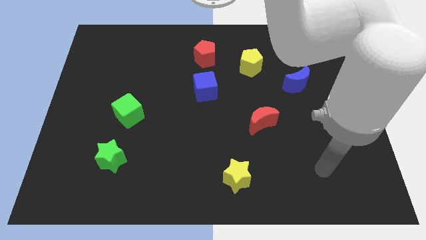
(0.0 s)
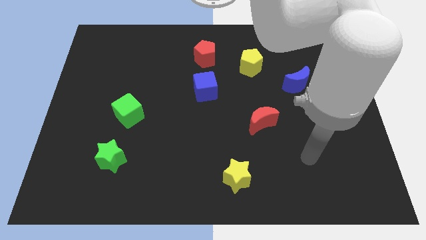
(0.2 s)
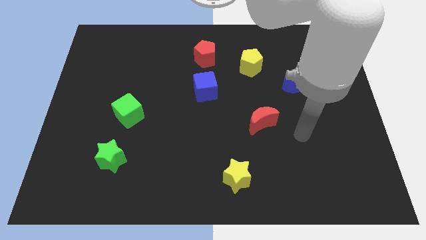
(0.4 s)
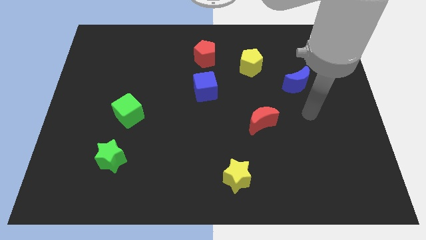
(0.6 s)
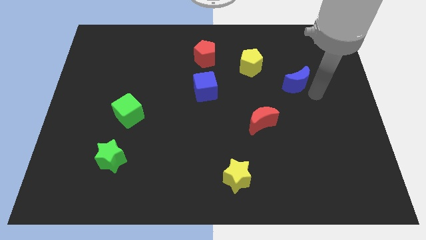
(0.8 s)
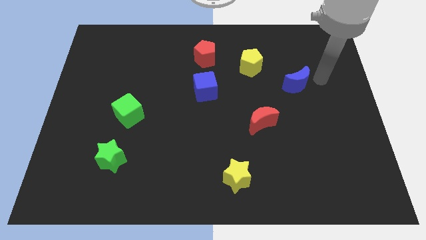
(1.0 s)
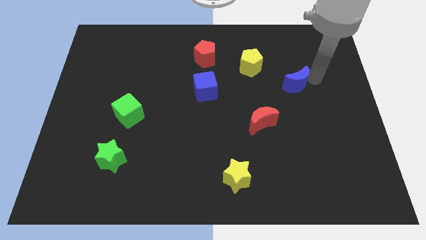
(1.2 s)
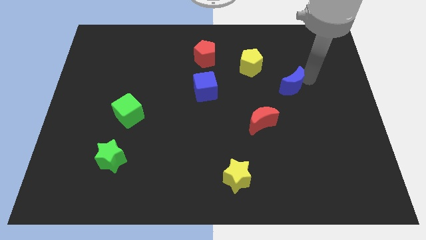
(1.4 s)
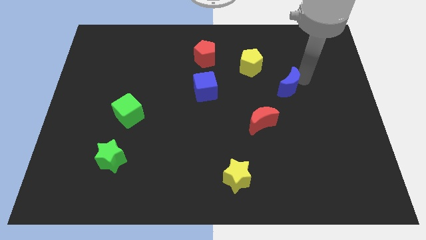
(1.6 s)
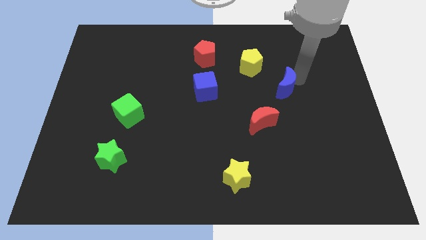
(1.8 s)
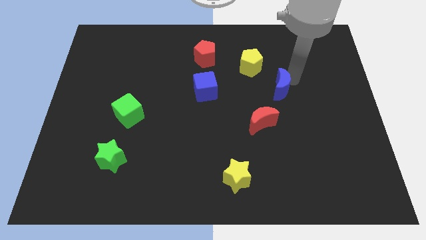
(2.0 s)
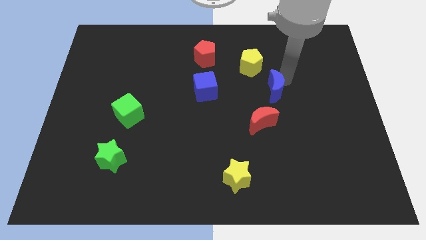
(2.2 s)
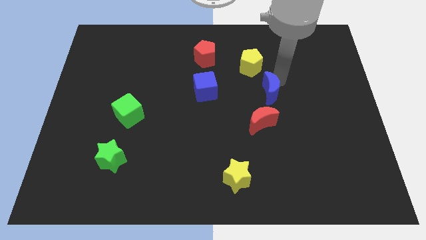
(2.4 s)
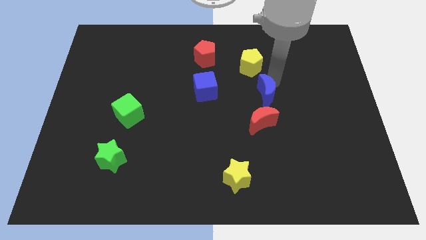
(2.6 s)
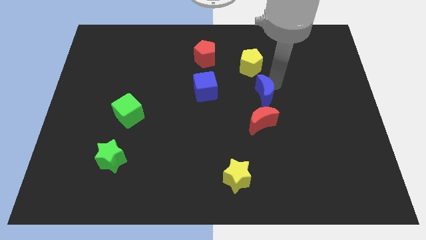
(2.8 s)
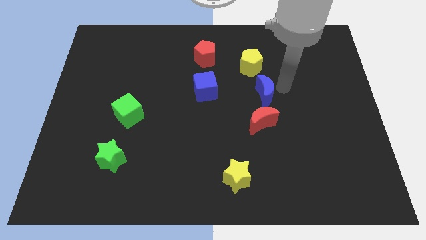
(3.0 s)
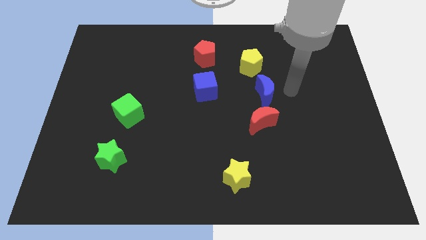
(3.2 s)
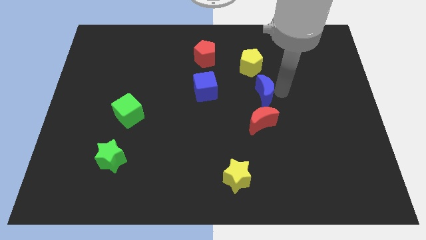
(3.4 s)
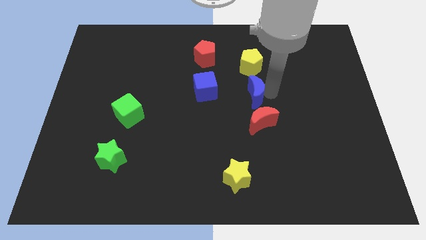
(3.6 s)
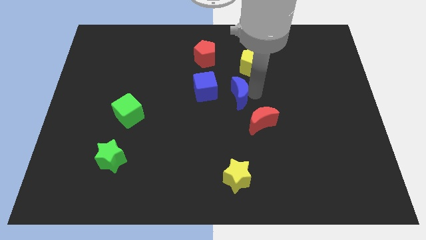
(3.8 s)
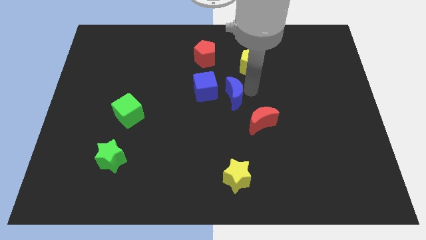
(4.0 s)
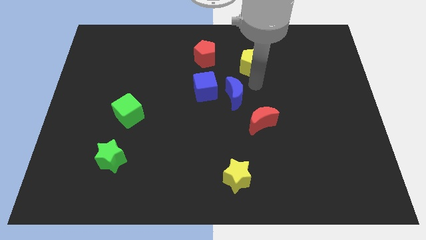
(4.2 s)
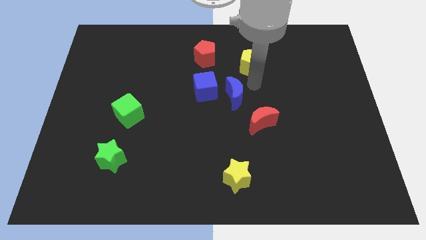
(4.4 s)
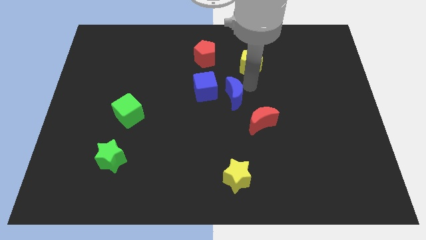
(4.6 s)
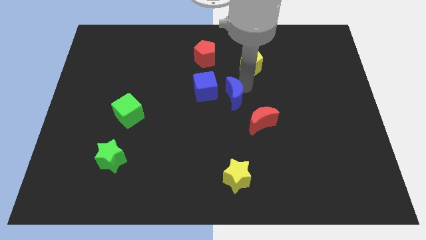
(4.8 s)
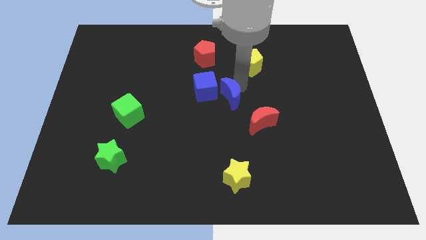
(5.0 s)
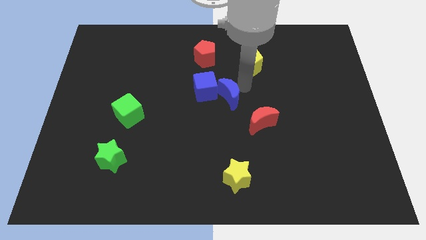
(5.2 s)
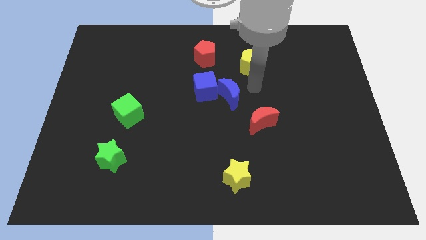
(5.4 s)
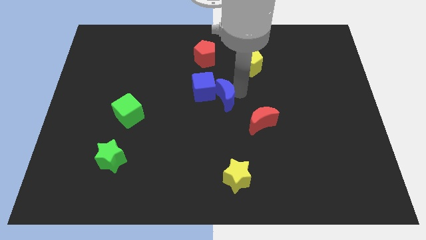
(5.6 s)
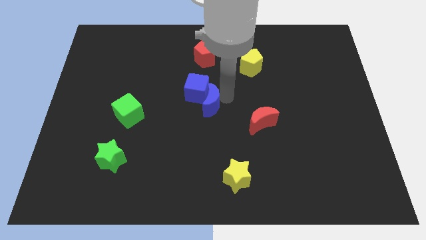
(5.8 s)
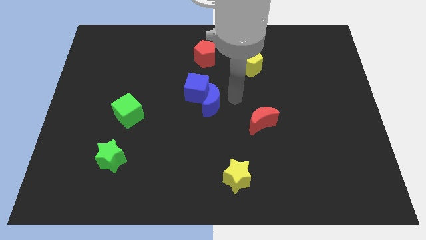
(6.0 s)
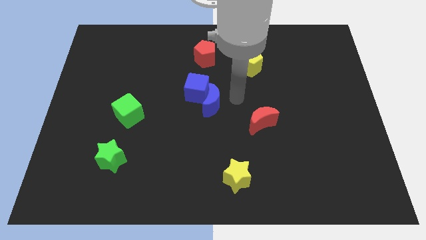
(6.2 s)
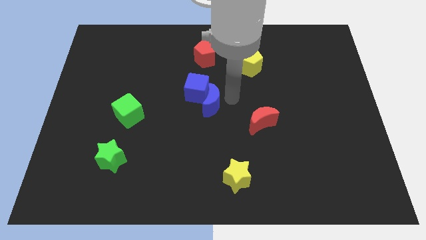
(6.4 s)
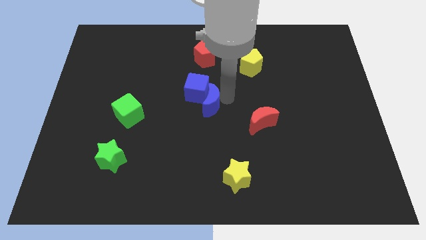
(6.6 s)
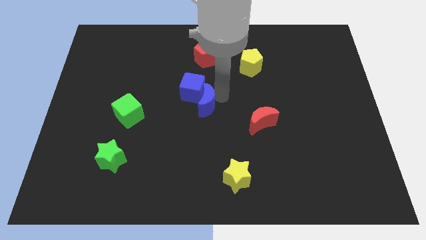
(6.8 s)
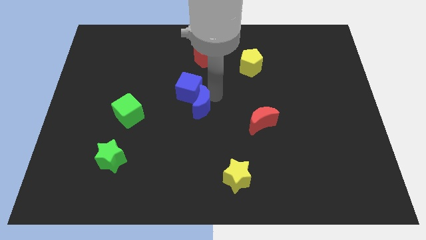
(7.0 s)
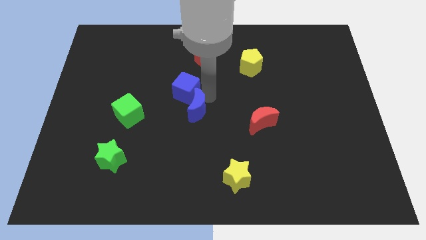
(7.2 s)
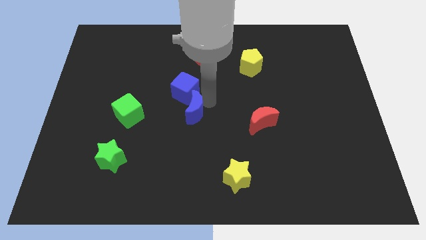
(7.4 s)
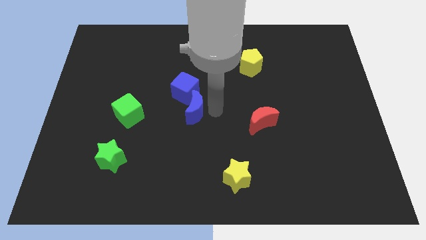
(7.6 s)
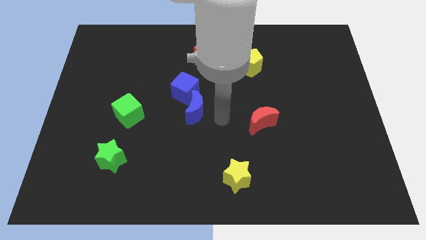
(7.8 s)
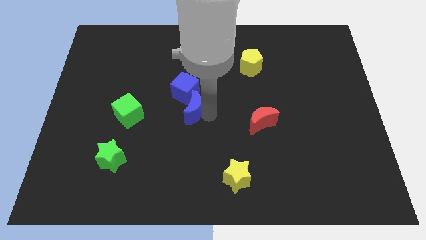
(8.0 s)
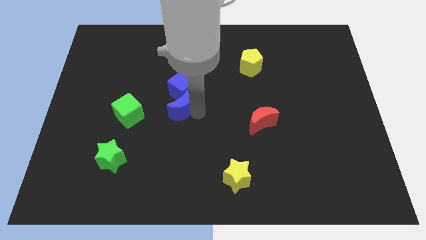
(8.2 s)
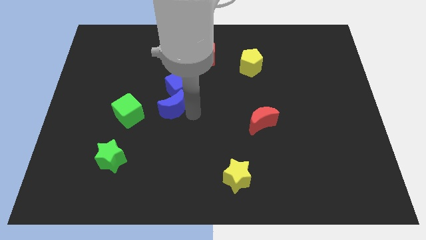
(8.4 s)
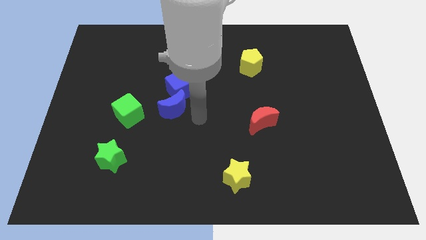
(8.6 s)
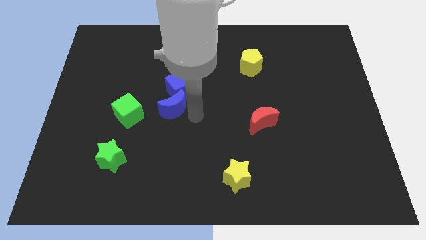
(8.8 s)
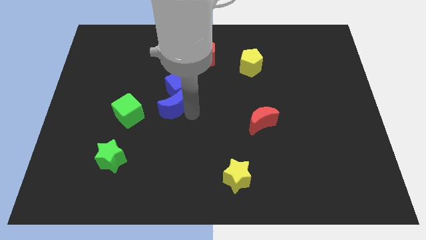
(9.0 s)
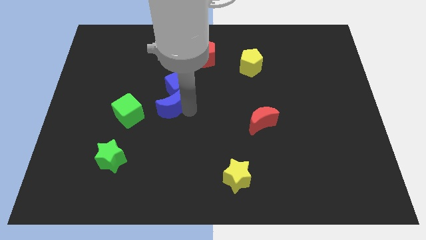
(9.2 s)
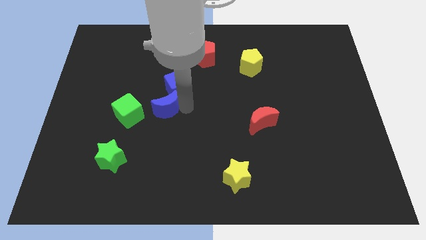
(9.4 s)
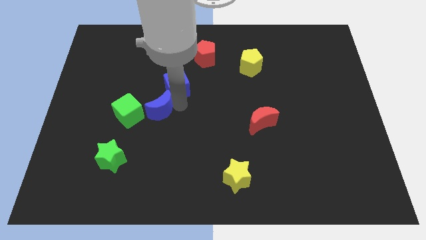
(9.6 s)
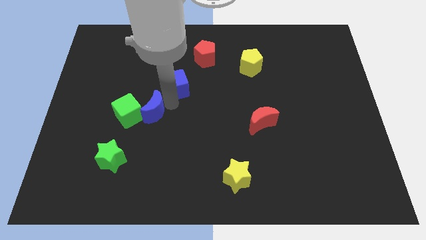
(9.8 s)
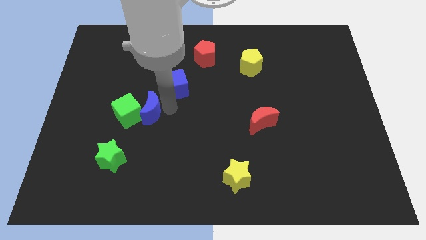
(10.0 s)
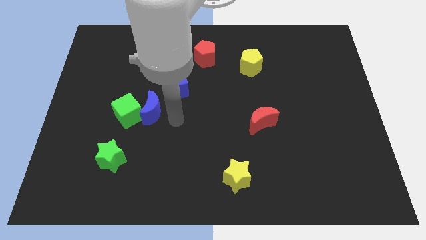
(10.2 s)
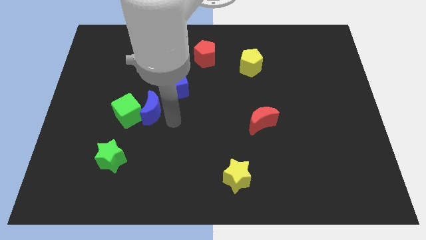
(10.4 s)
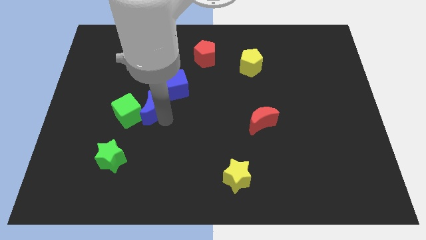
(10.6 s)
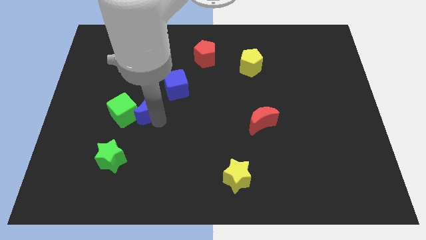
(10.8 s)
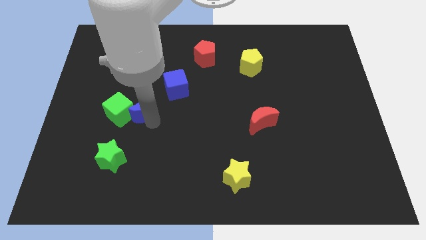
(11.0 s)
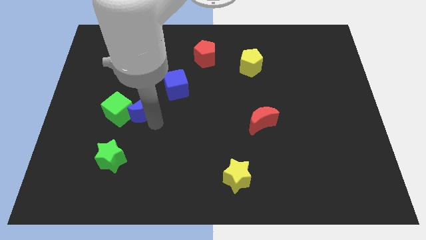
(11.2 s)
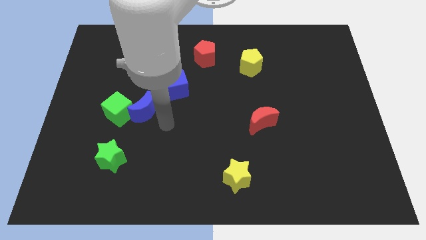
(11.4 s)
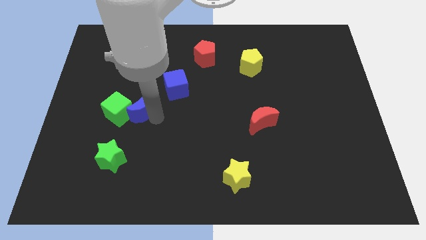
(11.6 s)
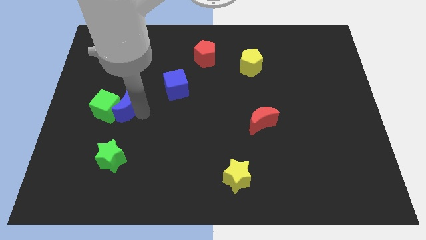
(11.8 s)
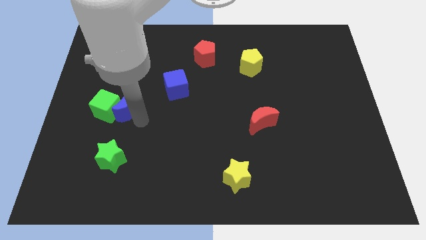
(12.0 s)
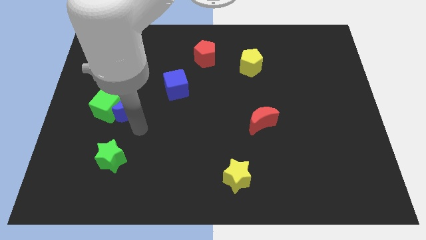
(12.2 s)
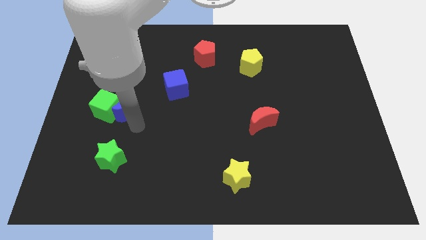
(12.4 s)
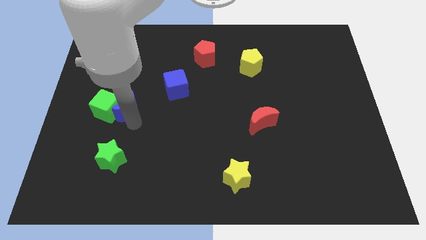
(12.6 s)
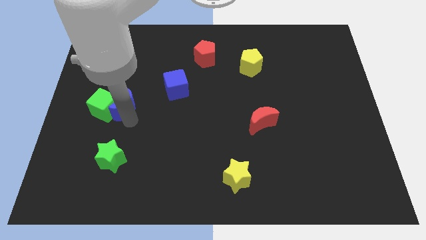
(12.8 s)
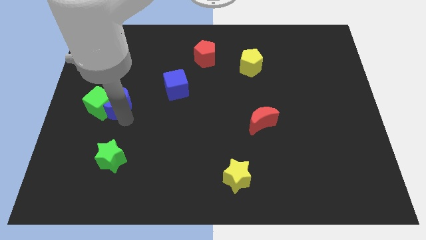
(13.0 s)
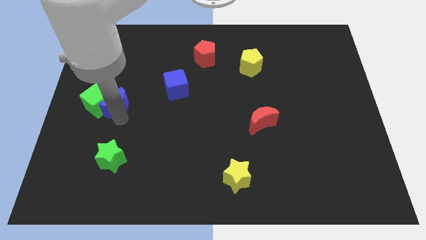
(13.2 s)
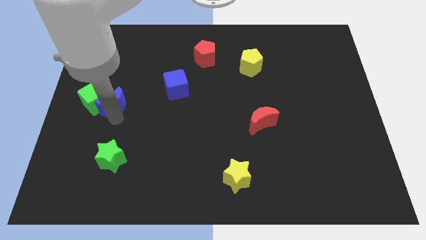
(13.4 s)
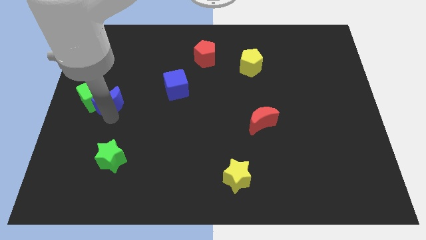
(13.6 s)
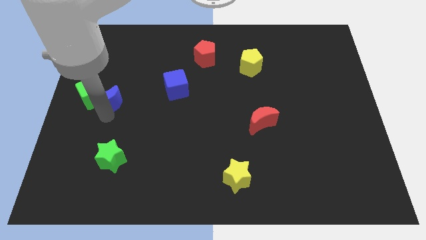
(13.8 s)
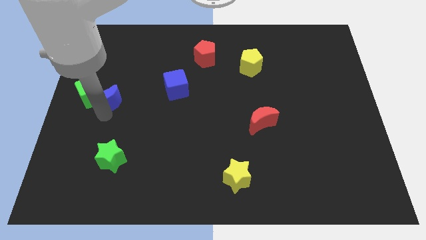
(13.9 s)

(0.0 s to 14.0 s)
move the blue moon to the left side of the board
